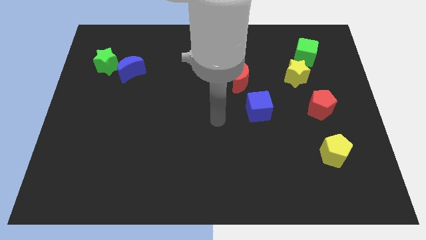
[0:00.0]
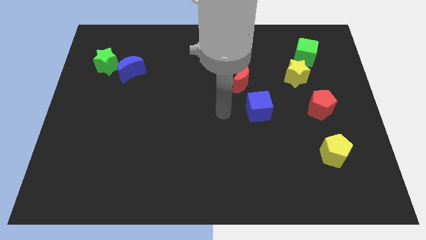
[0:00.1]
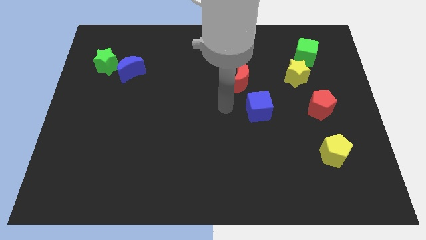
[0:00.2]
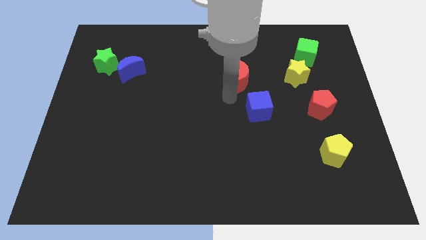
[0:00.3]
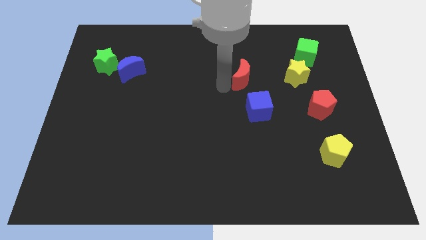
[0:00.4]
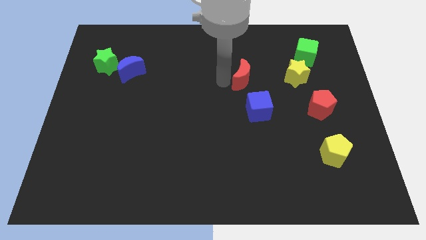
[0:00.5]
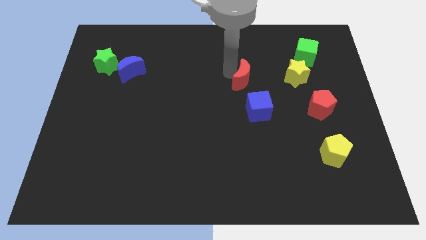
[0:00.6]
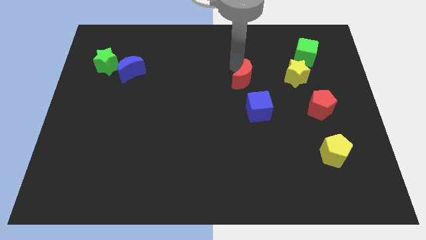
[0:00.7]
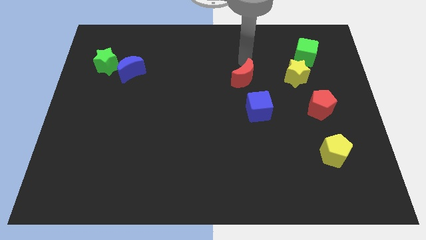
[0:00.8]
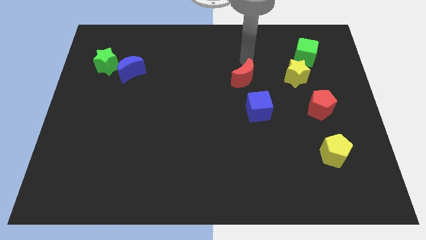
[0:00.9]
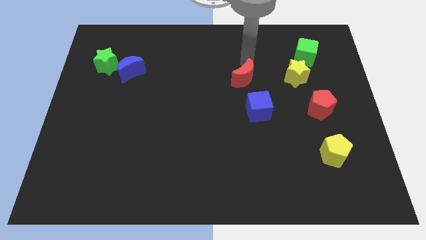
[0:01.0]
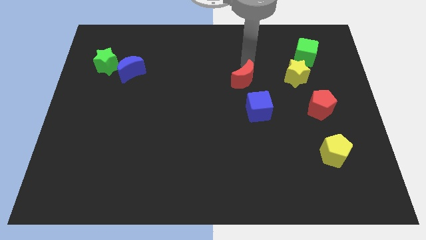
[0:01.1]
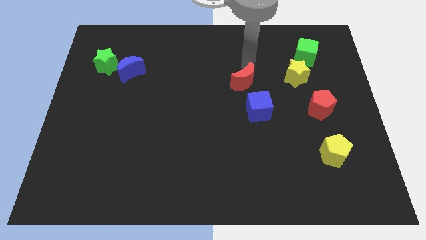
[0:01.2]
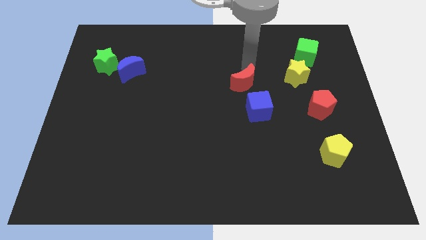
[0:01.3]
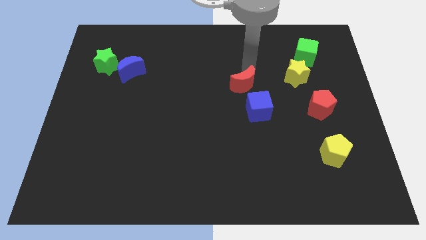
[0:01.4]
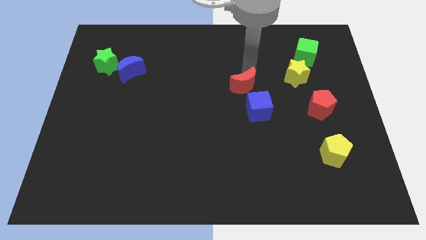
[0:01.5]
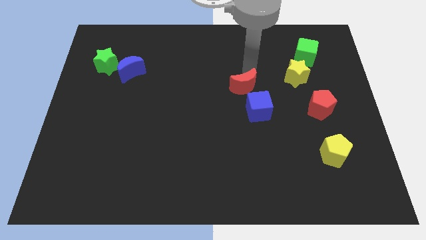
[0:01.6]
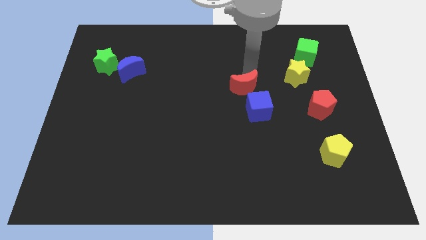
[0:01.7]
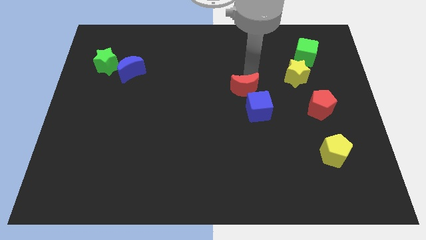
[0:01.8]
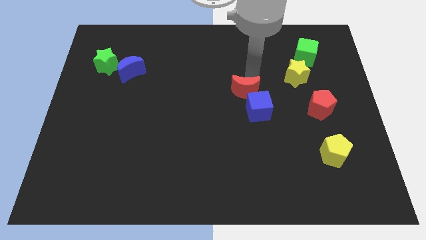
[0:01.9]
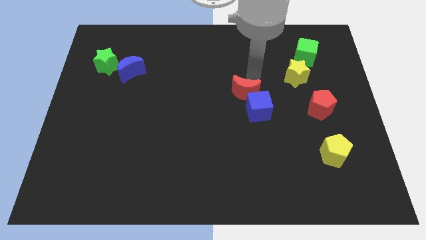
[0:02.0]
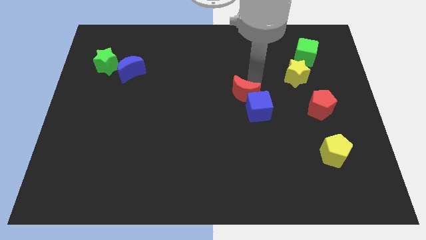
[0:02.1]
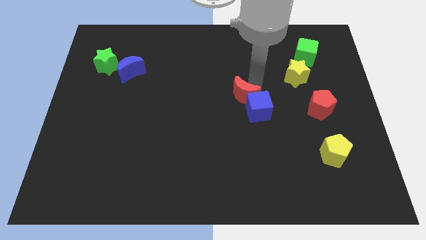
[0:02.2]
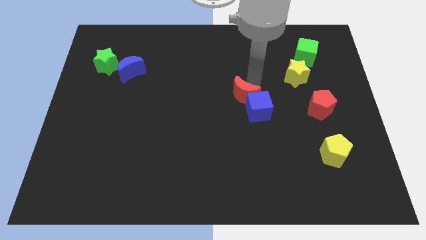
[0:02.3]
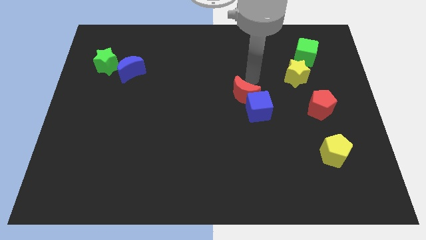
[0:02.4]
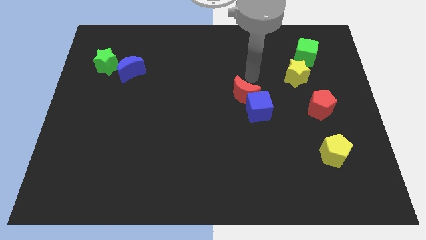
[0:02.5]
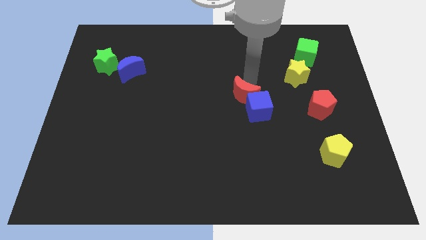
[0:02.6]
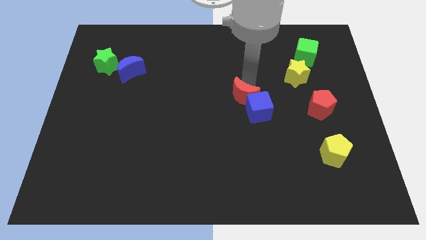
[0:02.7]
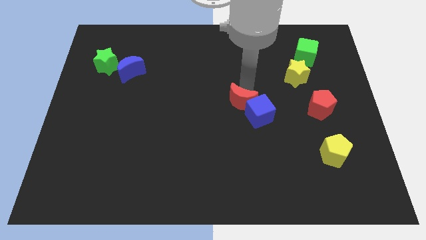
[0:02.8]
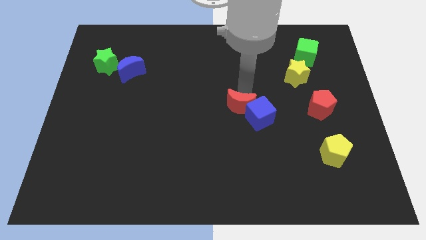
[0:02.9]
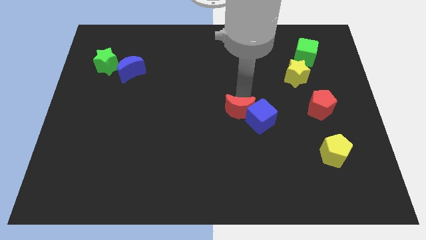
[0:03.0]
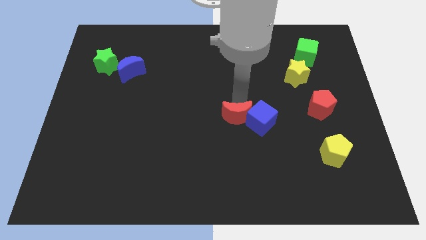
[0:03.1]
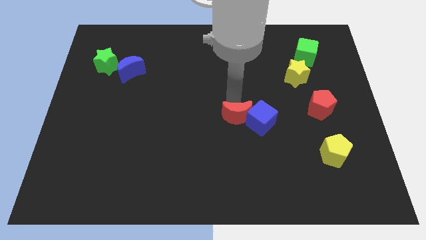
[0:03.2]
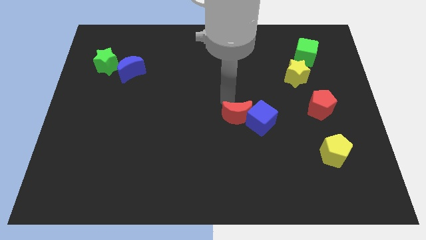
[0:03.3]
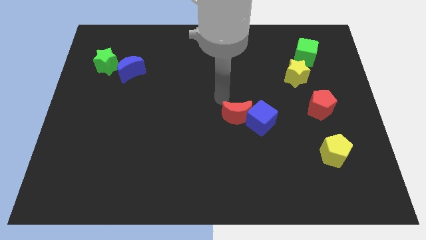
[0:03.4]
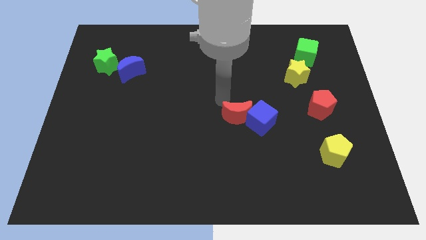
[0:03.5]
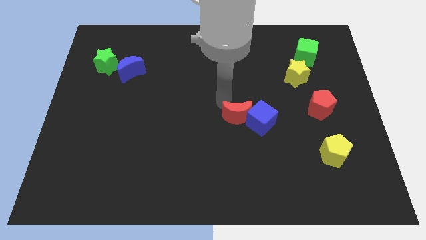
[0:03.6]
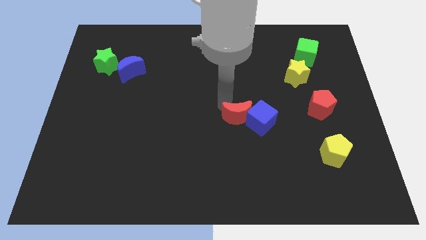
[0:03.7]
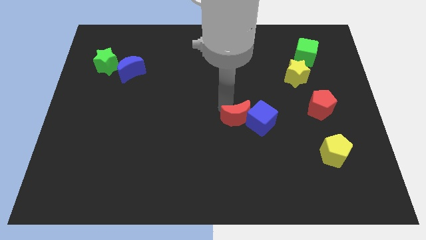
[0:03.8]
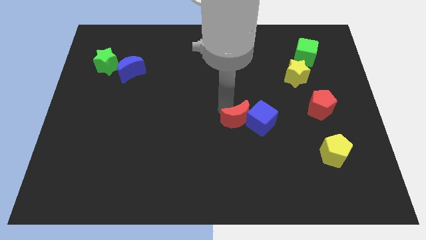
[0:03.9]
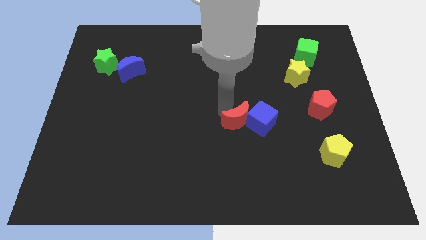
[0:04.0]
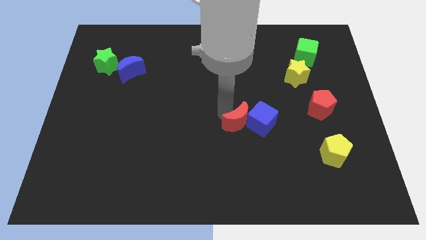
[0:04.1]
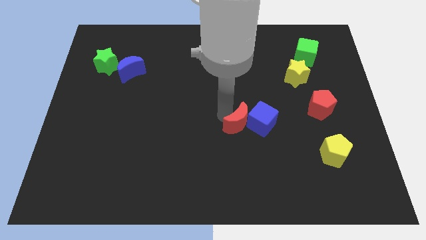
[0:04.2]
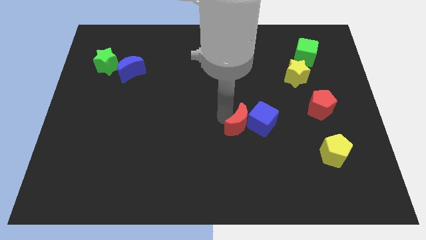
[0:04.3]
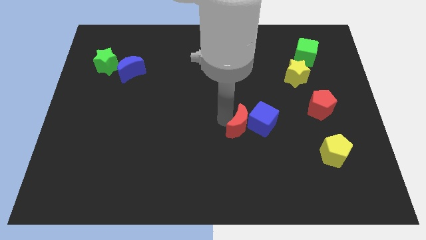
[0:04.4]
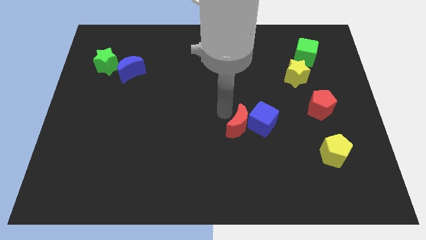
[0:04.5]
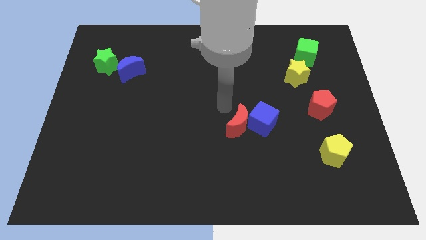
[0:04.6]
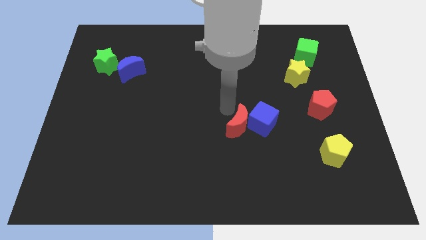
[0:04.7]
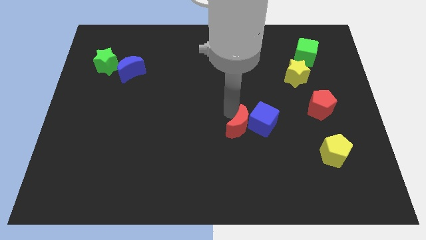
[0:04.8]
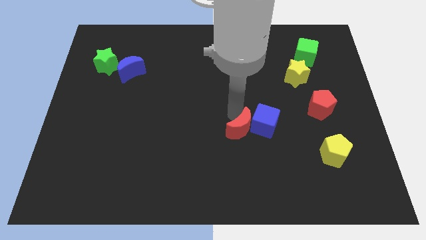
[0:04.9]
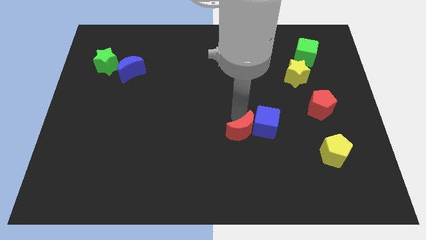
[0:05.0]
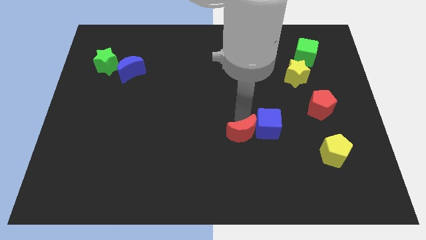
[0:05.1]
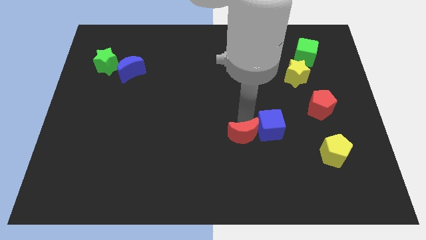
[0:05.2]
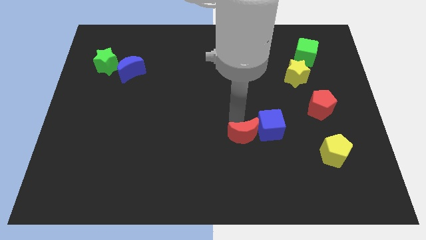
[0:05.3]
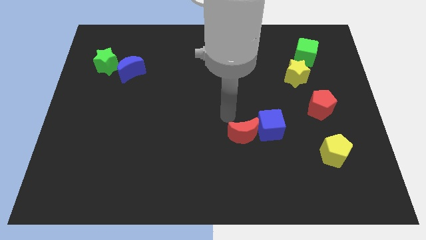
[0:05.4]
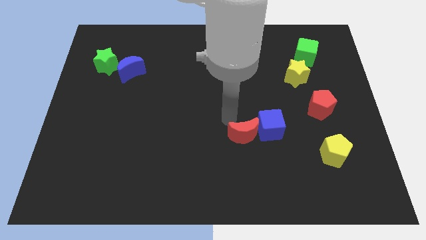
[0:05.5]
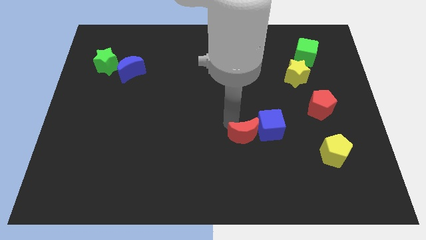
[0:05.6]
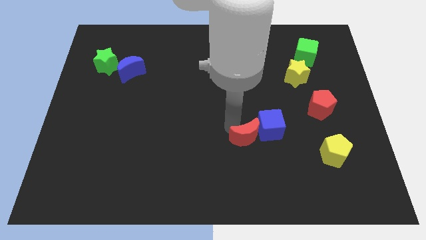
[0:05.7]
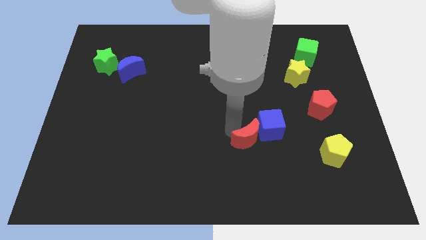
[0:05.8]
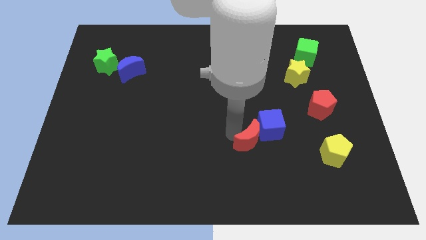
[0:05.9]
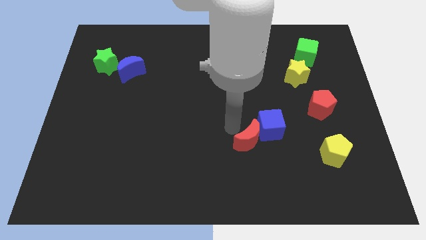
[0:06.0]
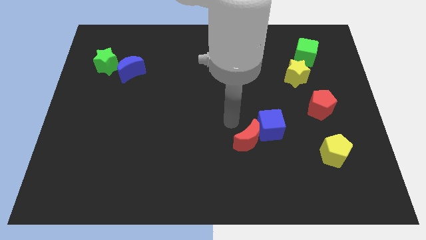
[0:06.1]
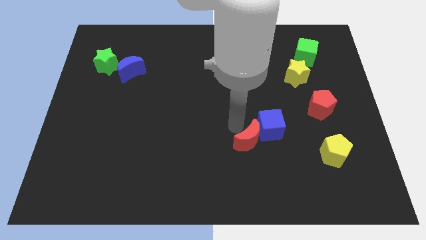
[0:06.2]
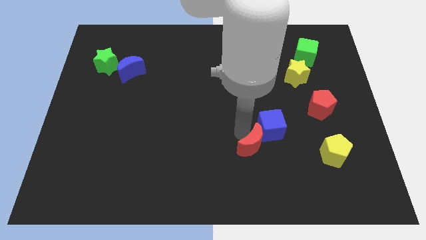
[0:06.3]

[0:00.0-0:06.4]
put the red moon to the bottom side of the blue cube

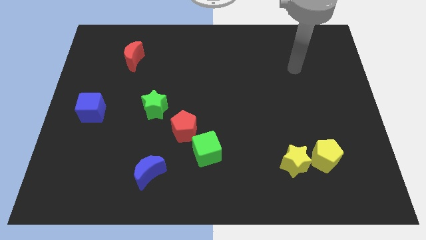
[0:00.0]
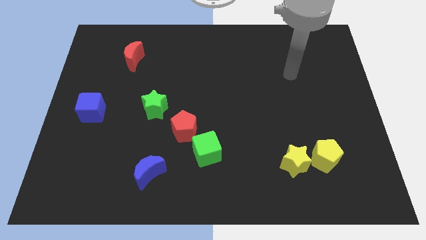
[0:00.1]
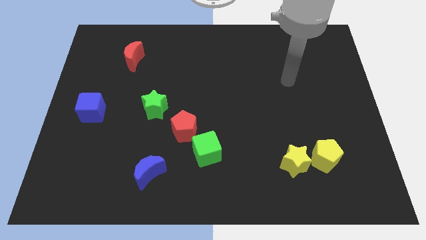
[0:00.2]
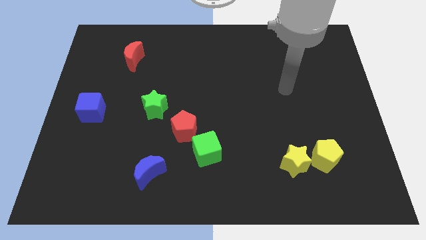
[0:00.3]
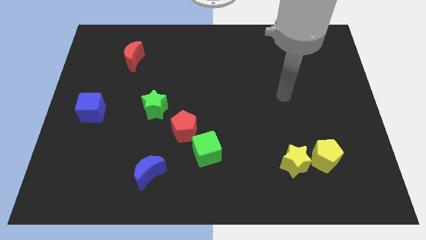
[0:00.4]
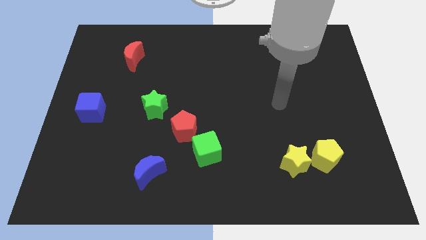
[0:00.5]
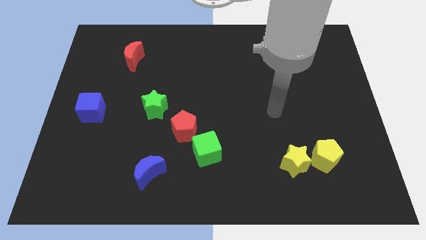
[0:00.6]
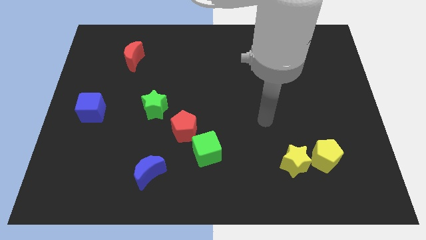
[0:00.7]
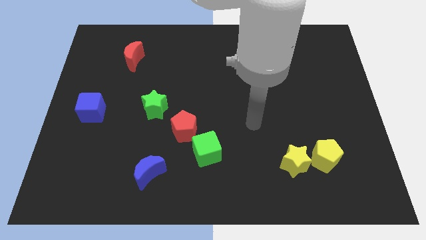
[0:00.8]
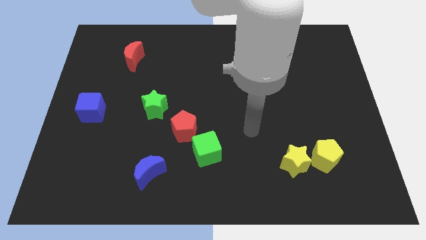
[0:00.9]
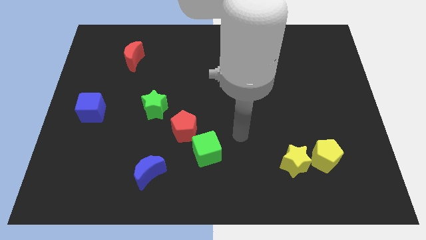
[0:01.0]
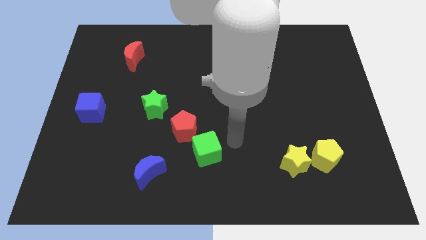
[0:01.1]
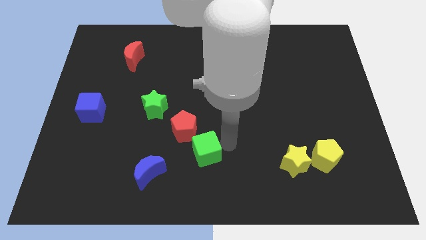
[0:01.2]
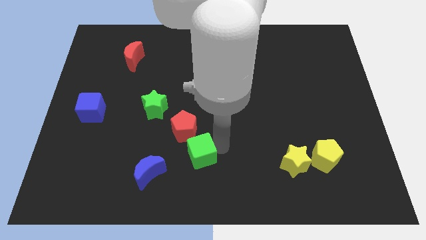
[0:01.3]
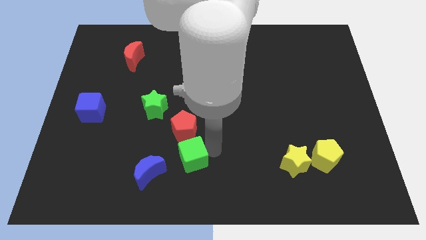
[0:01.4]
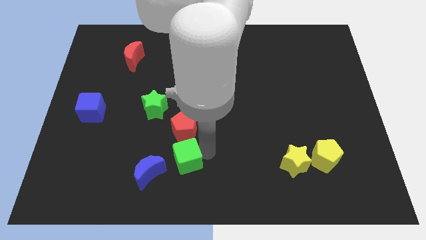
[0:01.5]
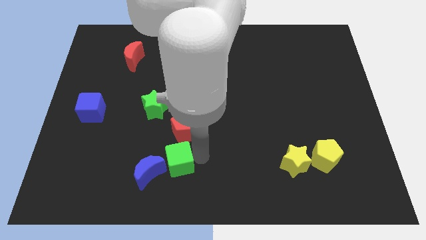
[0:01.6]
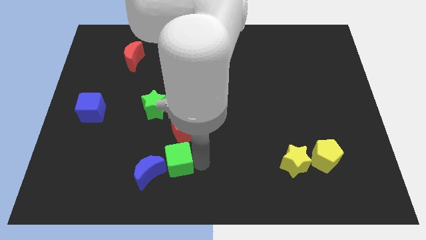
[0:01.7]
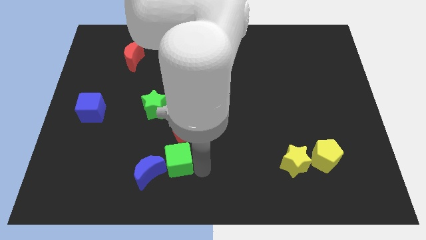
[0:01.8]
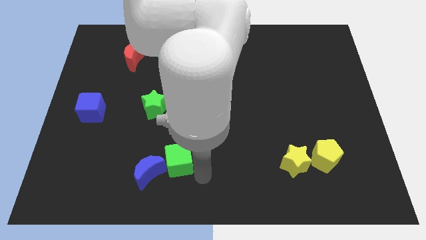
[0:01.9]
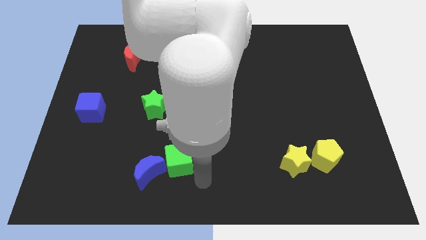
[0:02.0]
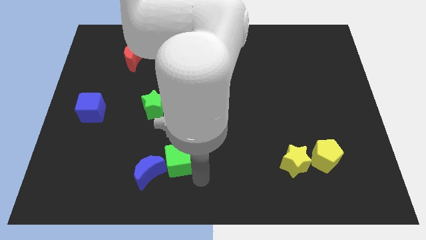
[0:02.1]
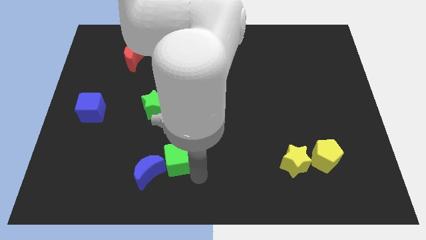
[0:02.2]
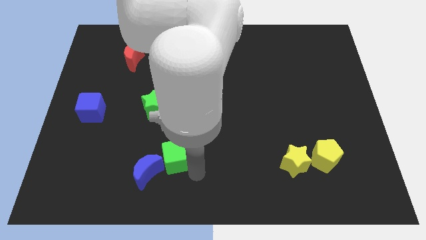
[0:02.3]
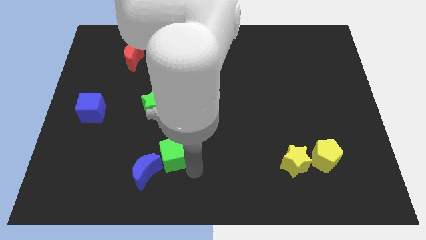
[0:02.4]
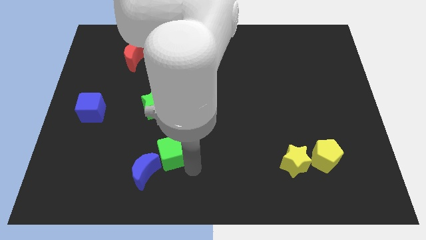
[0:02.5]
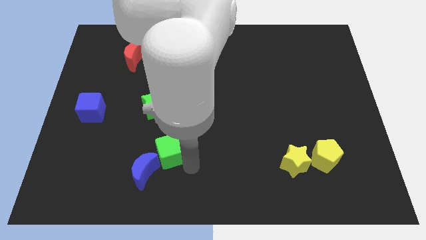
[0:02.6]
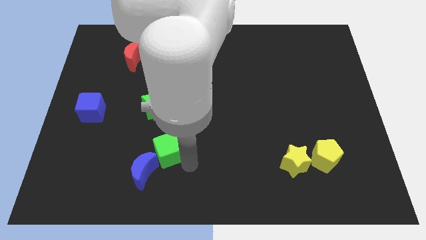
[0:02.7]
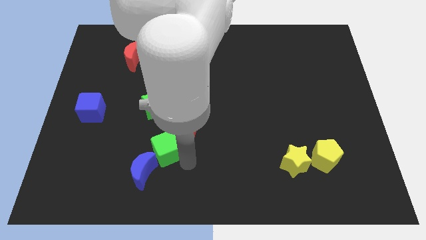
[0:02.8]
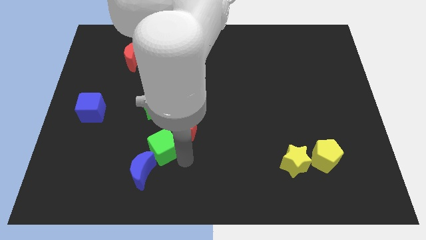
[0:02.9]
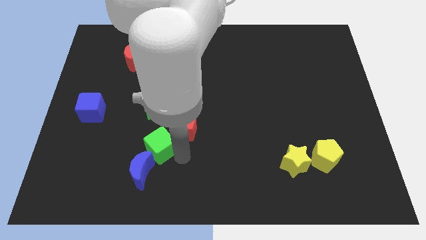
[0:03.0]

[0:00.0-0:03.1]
move the green cube to the left of the red pentagon
